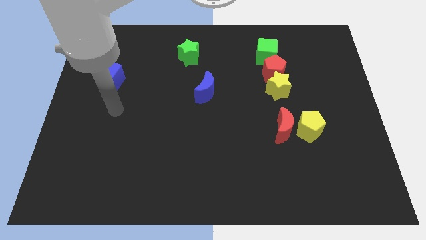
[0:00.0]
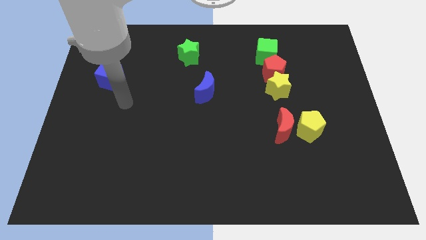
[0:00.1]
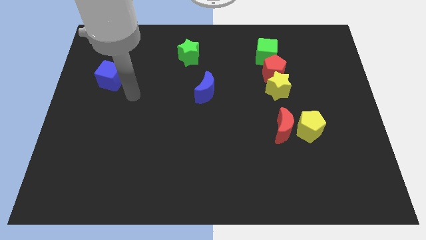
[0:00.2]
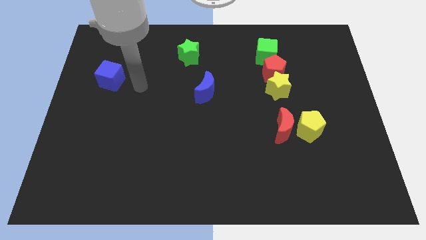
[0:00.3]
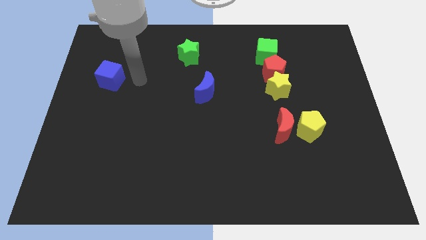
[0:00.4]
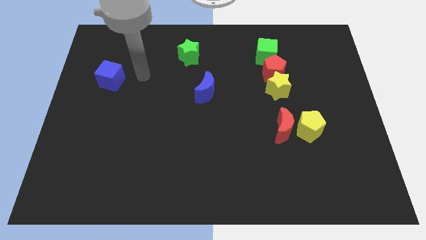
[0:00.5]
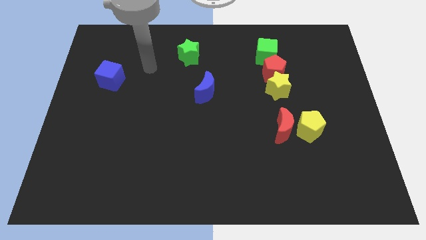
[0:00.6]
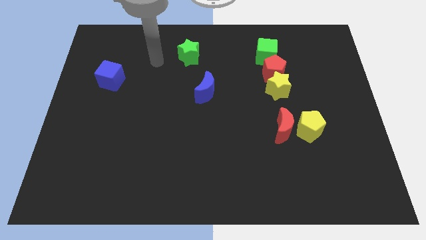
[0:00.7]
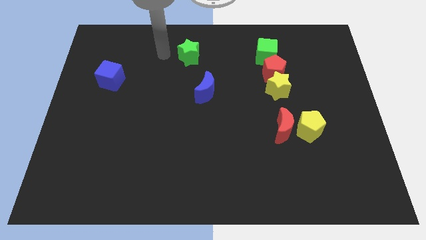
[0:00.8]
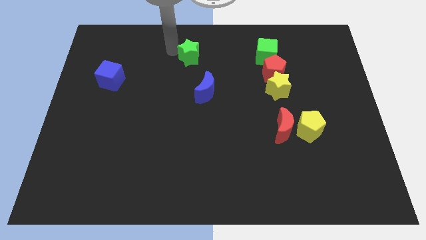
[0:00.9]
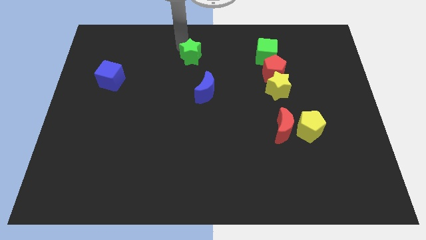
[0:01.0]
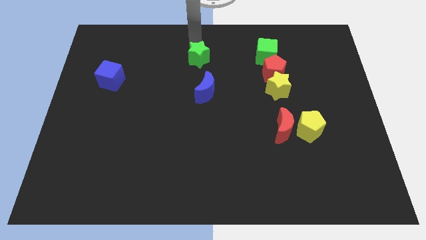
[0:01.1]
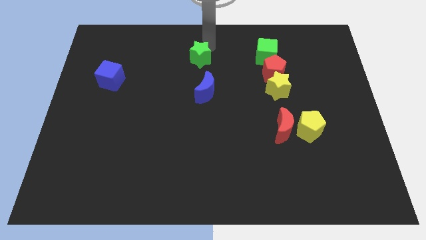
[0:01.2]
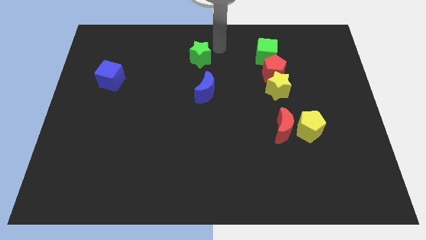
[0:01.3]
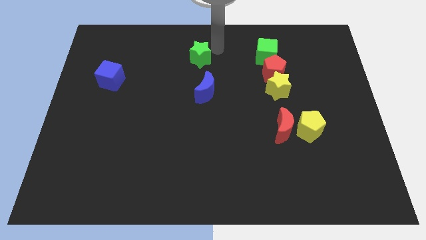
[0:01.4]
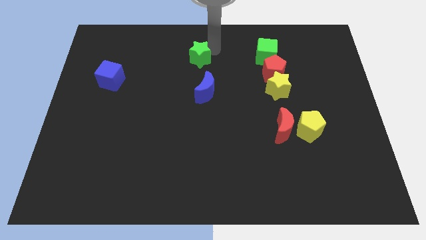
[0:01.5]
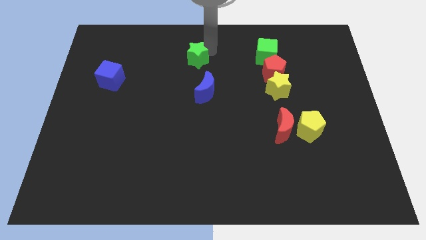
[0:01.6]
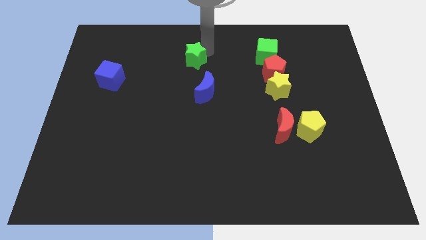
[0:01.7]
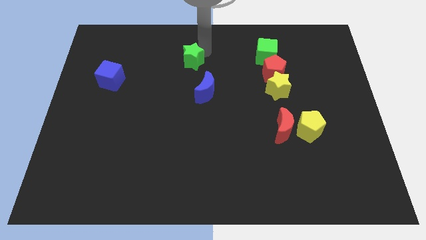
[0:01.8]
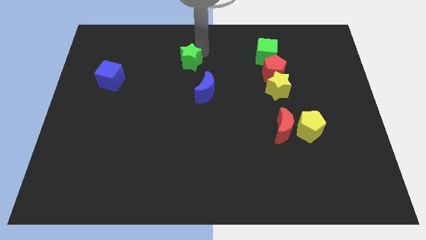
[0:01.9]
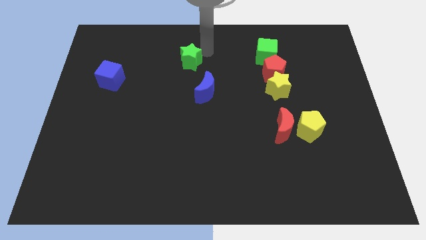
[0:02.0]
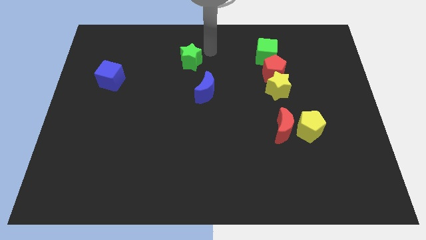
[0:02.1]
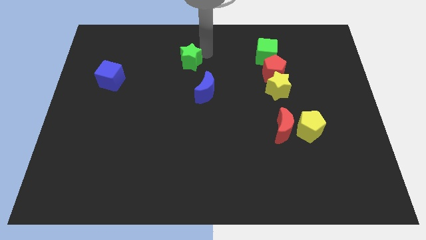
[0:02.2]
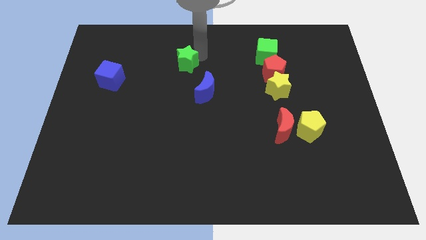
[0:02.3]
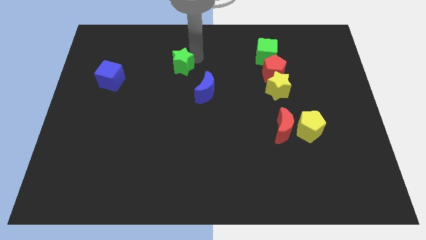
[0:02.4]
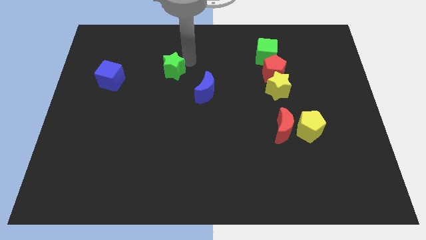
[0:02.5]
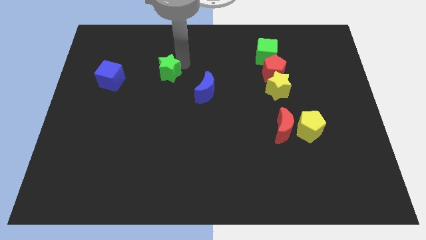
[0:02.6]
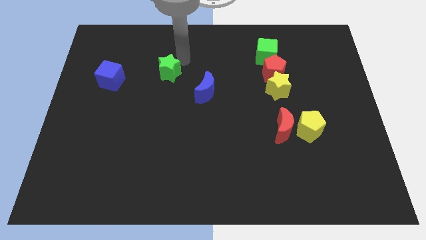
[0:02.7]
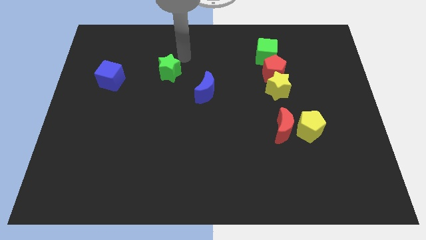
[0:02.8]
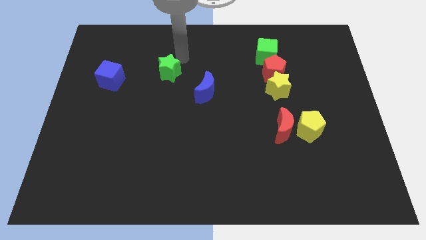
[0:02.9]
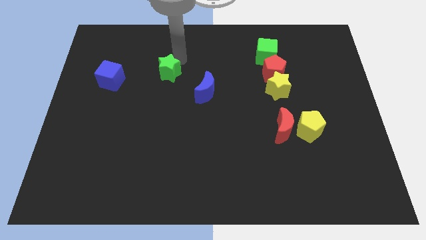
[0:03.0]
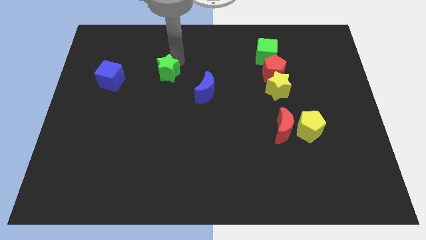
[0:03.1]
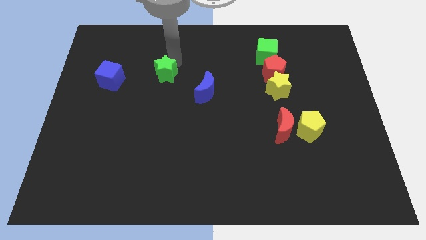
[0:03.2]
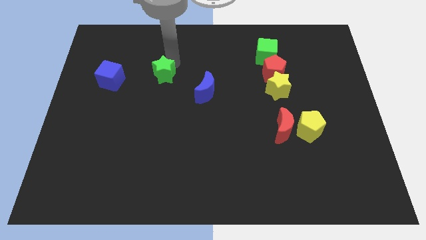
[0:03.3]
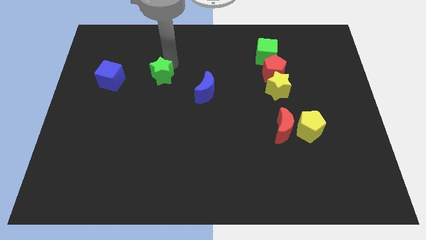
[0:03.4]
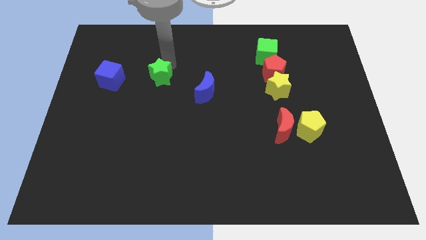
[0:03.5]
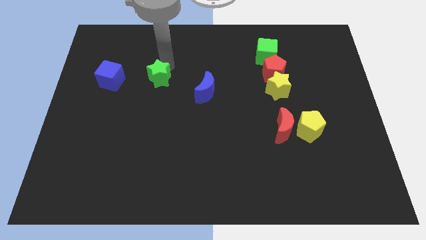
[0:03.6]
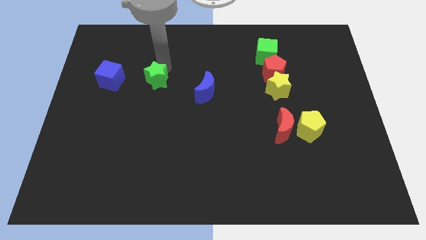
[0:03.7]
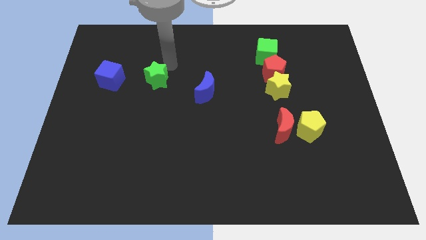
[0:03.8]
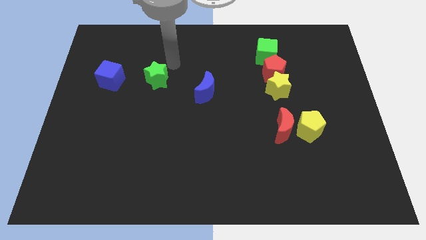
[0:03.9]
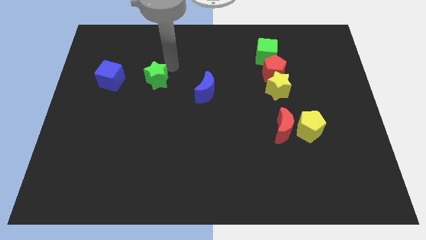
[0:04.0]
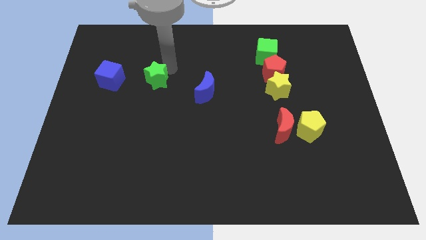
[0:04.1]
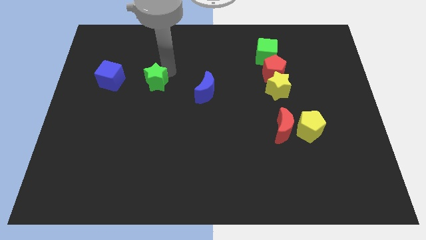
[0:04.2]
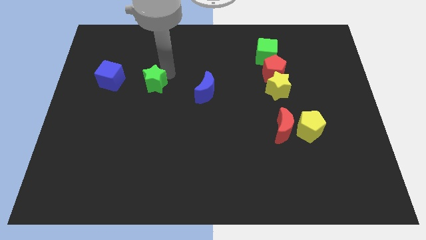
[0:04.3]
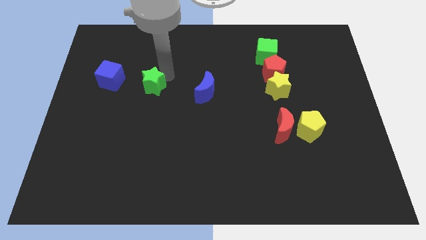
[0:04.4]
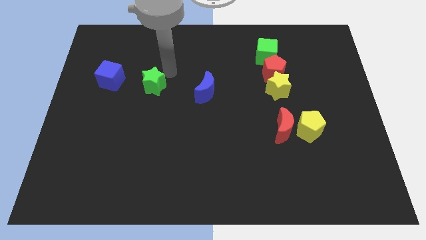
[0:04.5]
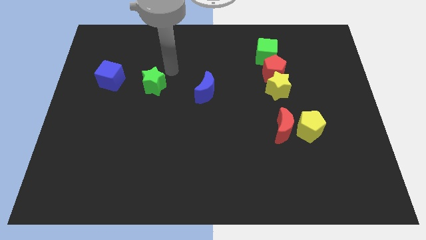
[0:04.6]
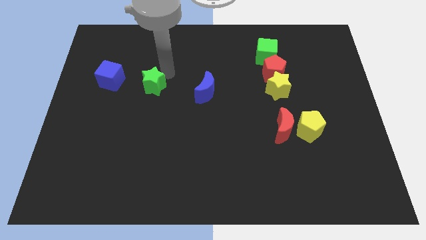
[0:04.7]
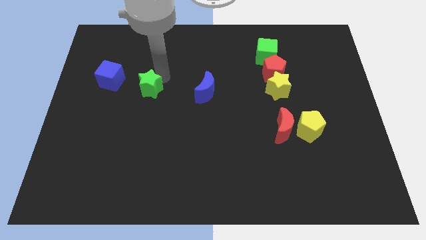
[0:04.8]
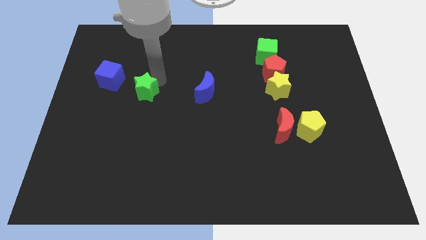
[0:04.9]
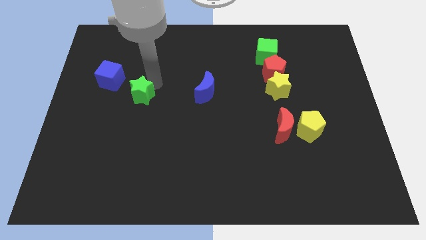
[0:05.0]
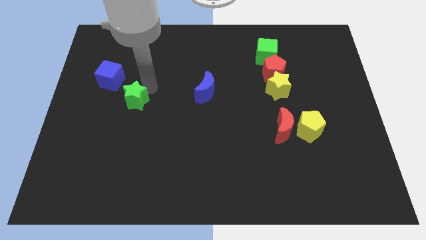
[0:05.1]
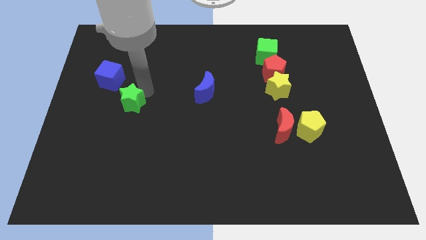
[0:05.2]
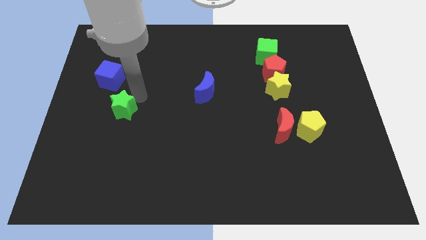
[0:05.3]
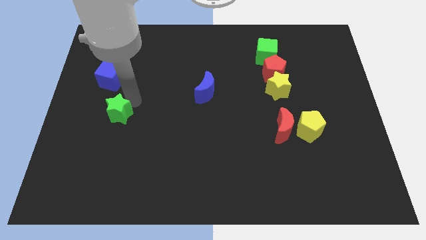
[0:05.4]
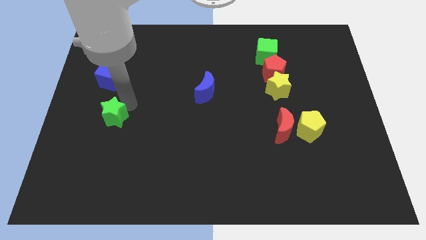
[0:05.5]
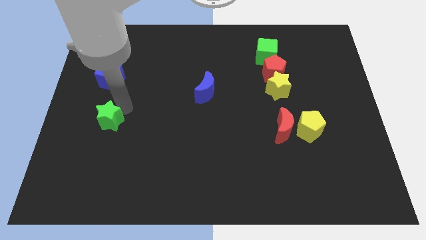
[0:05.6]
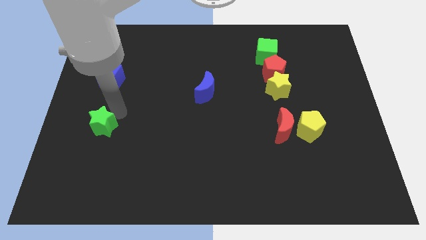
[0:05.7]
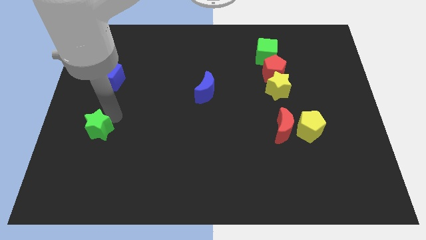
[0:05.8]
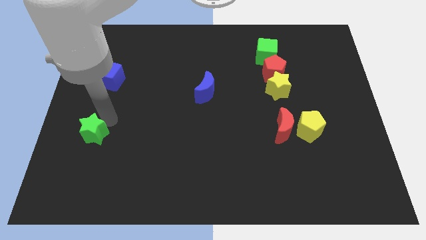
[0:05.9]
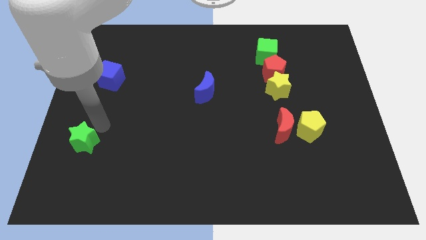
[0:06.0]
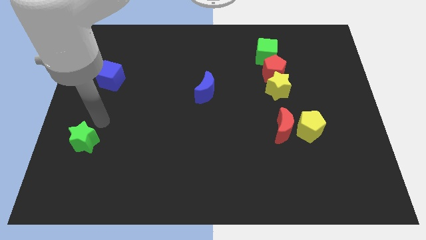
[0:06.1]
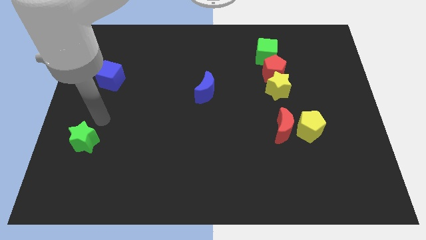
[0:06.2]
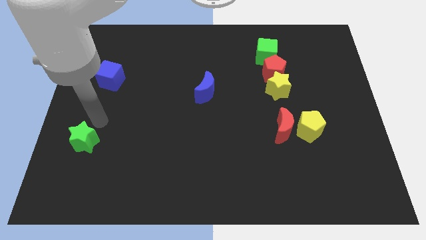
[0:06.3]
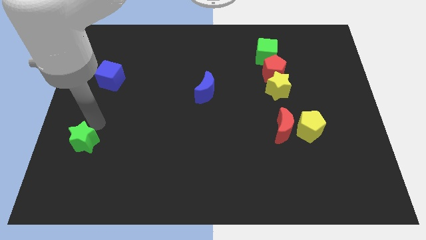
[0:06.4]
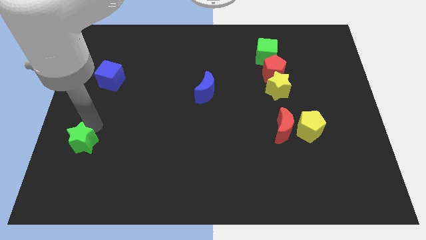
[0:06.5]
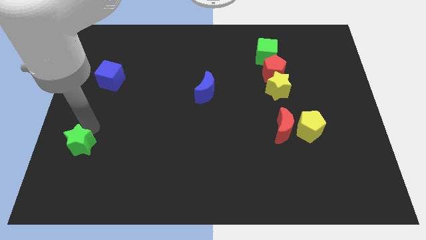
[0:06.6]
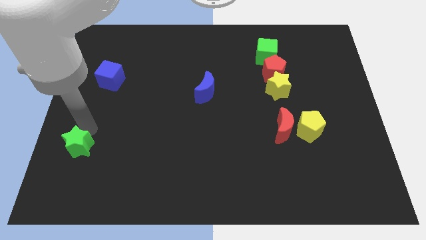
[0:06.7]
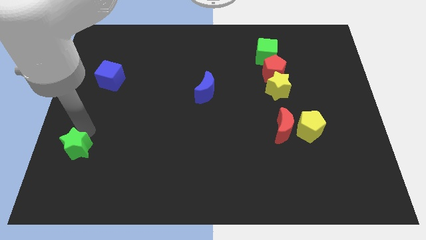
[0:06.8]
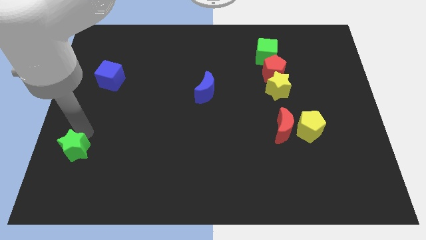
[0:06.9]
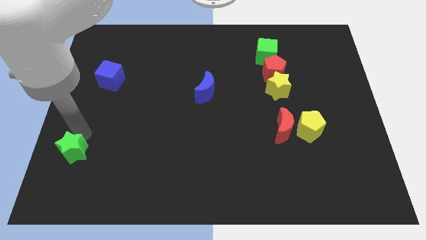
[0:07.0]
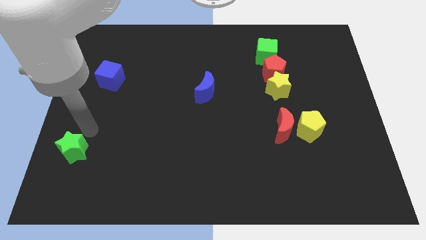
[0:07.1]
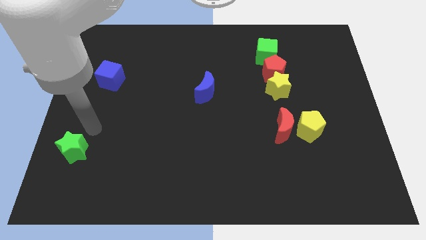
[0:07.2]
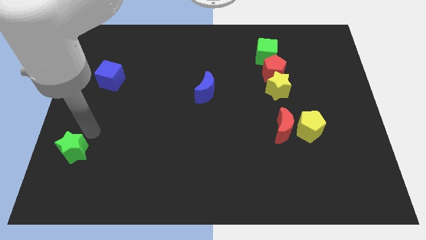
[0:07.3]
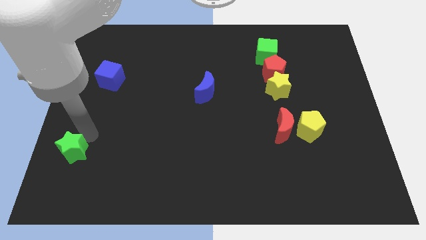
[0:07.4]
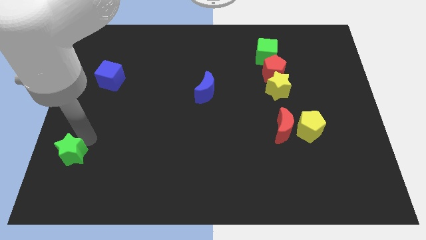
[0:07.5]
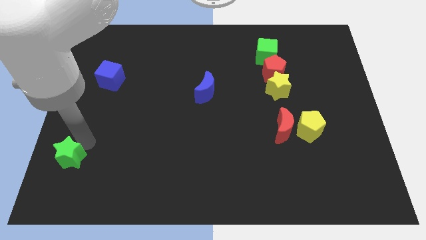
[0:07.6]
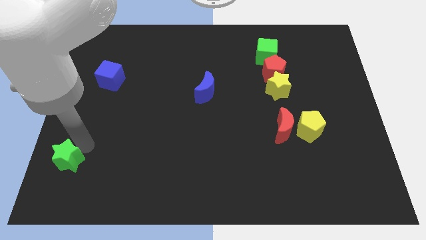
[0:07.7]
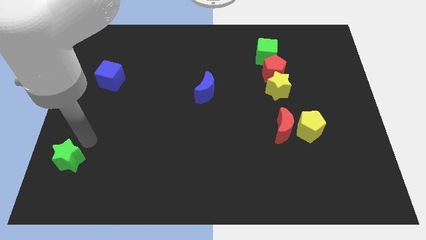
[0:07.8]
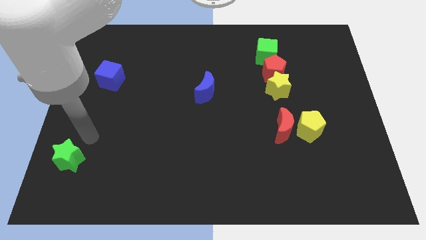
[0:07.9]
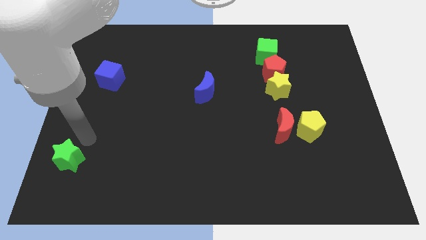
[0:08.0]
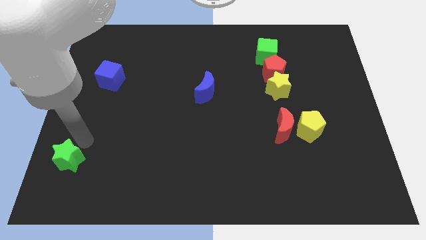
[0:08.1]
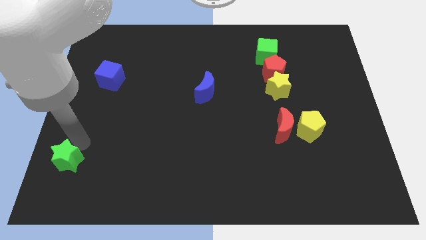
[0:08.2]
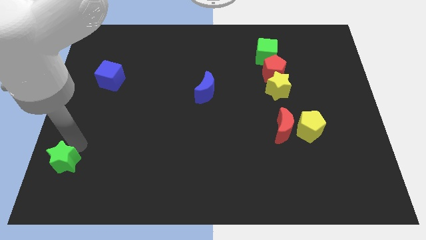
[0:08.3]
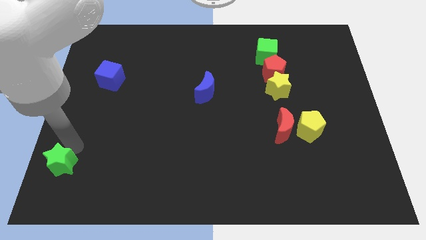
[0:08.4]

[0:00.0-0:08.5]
move the green star to the bottom left
